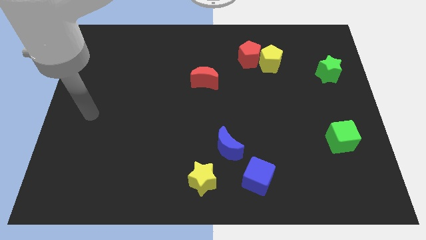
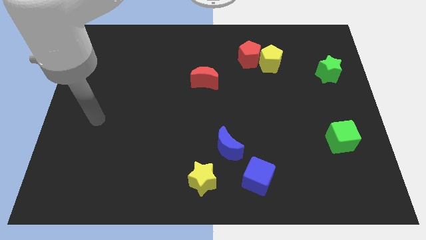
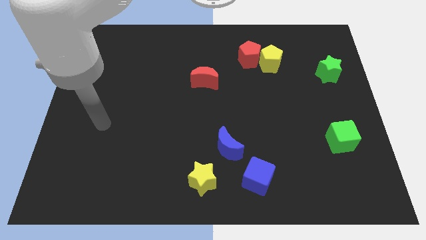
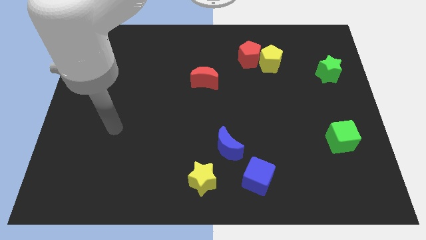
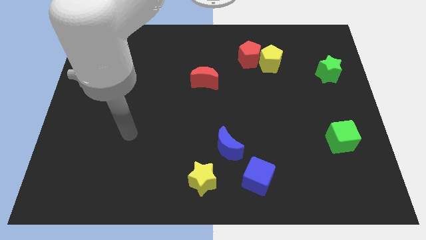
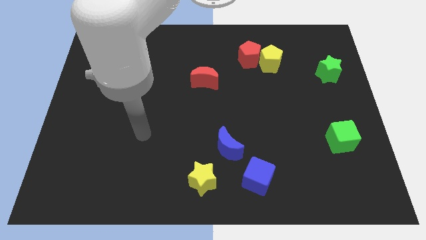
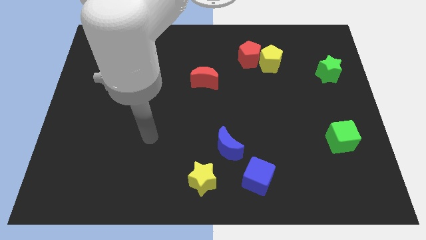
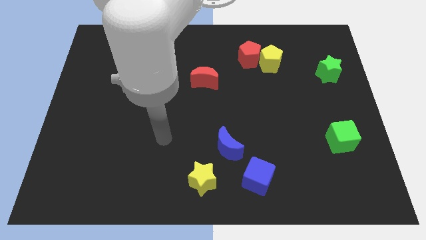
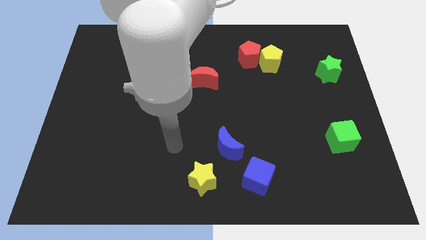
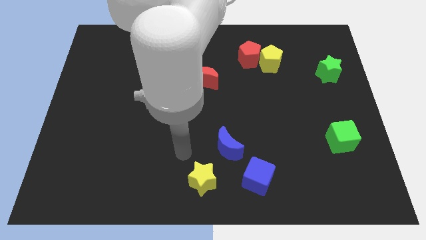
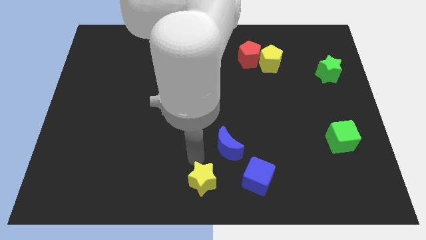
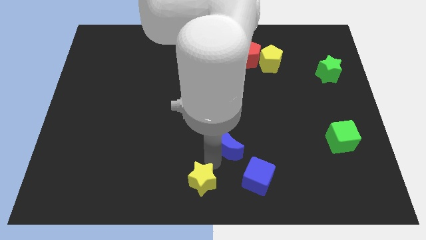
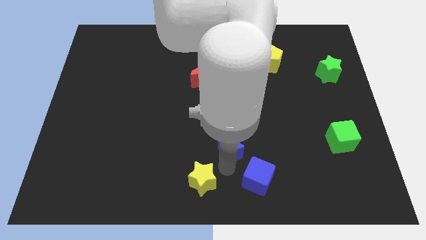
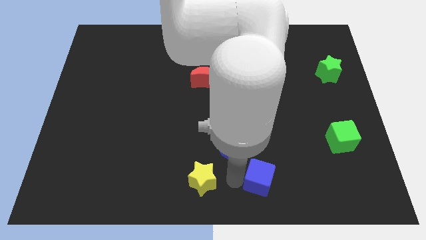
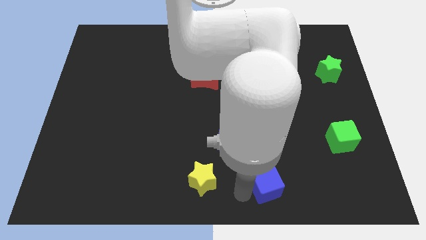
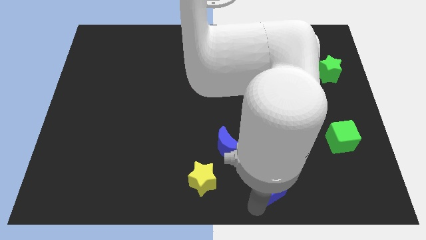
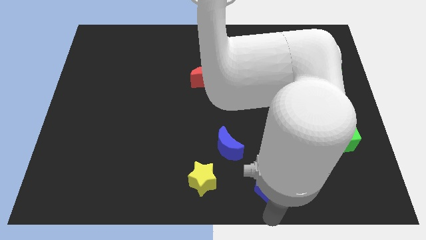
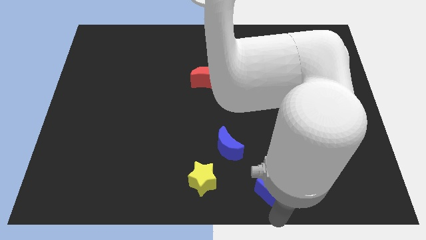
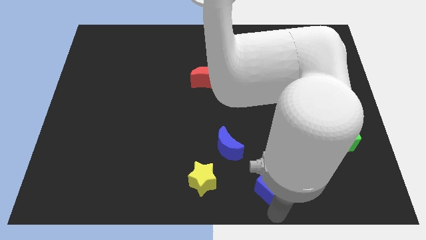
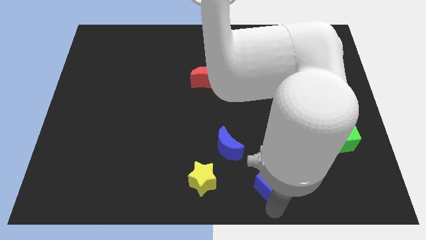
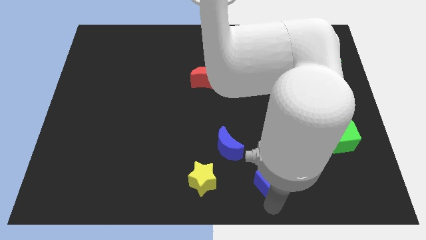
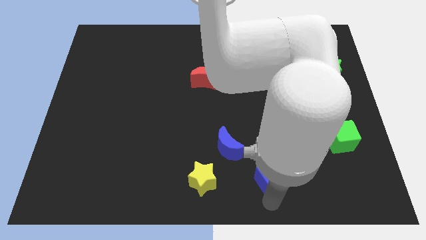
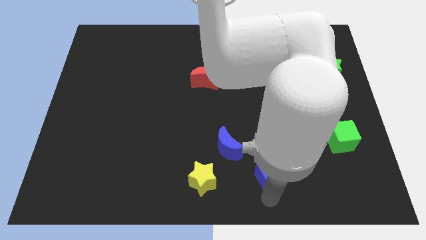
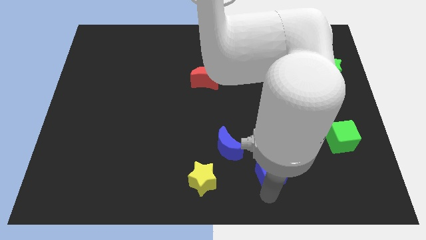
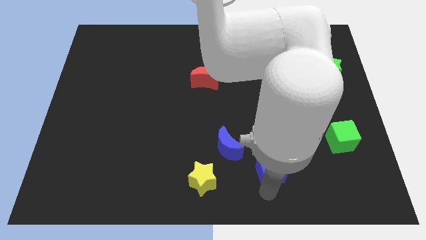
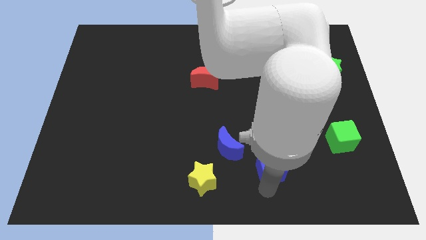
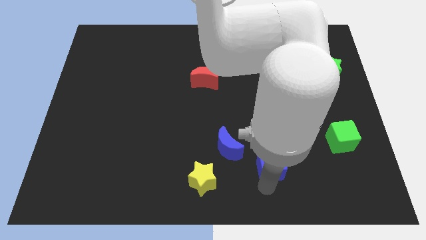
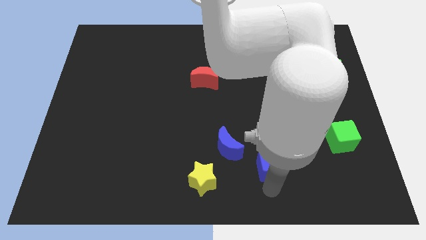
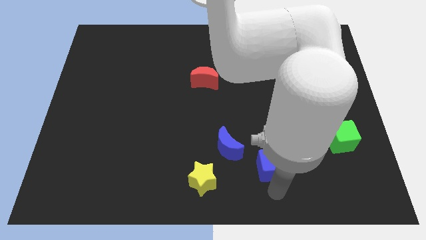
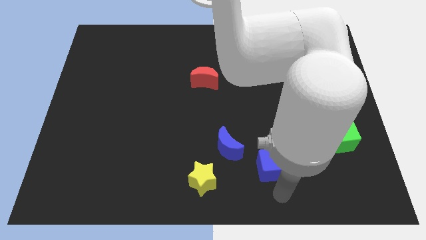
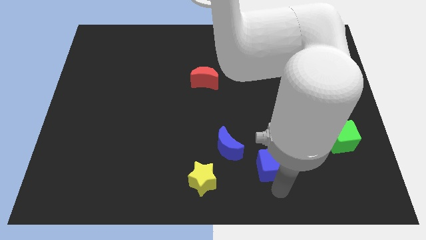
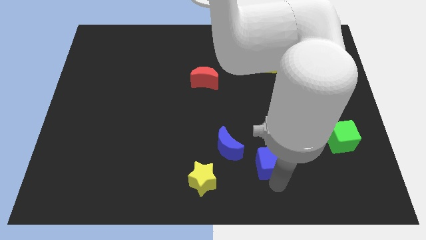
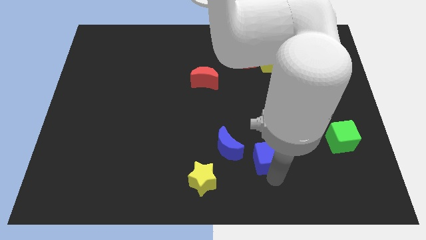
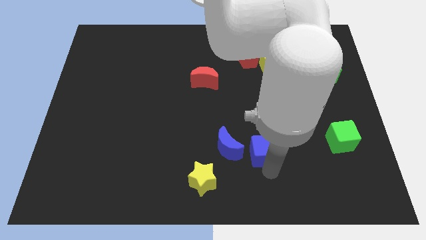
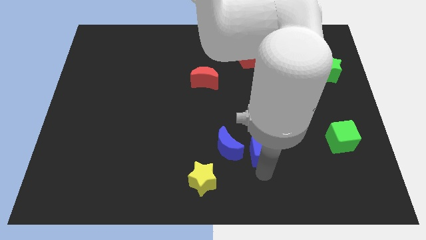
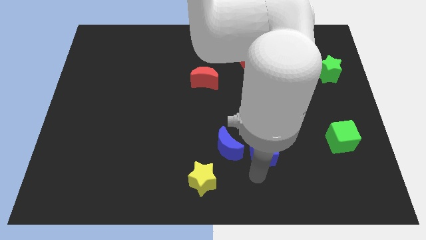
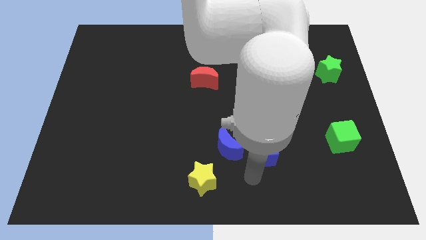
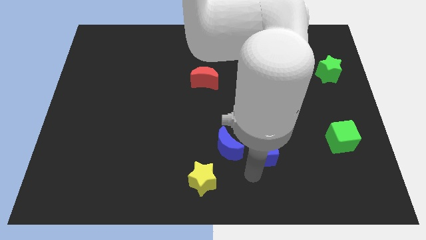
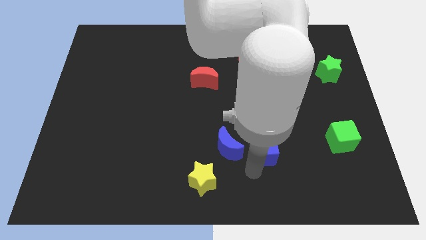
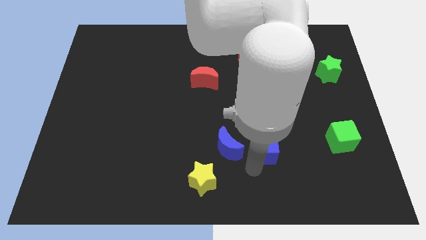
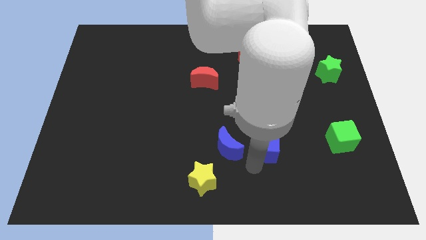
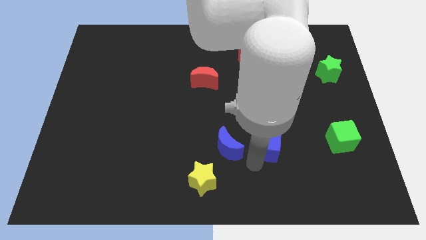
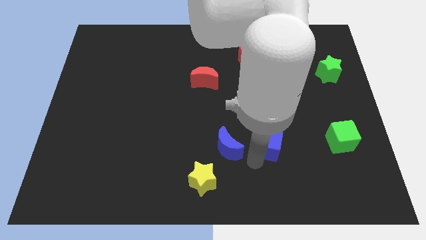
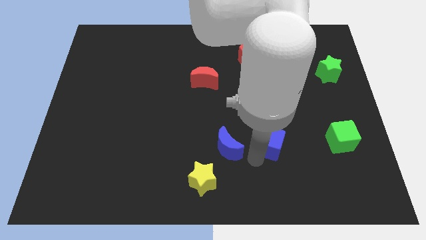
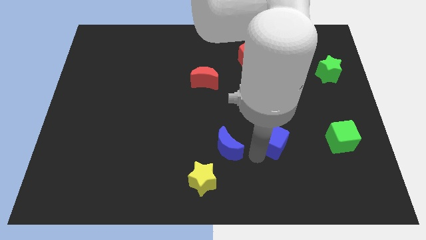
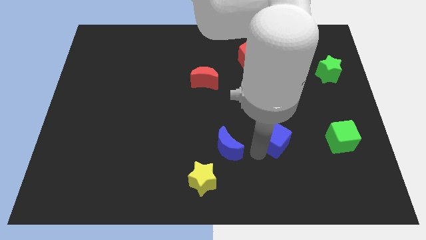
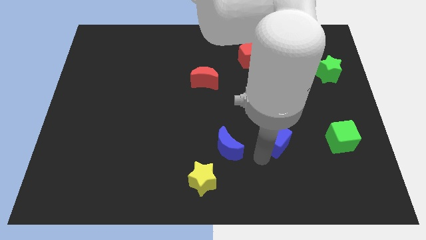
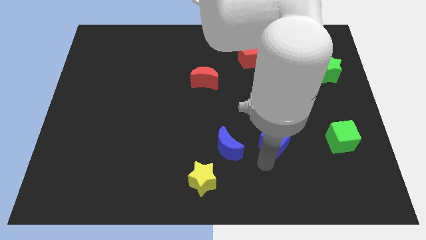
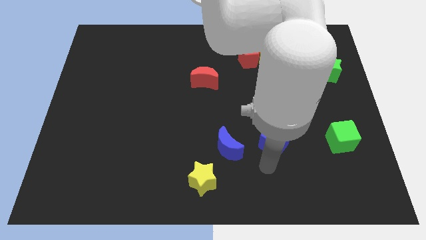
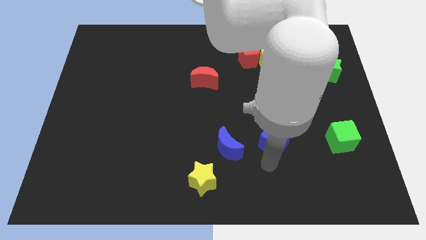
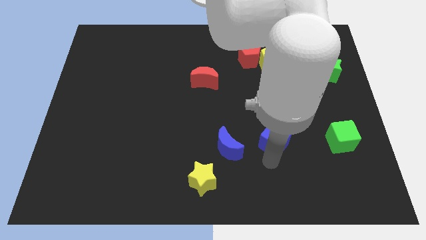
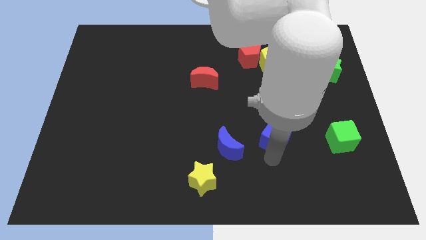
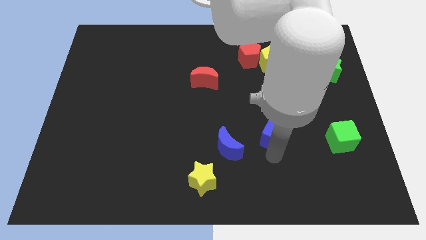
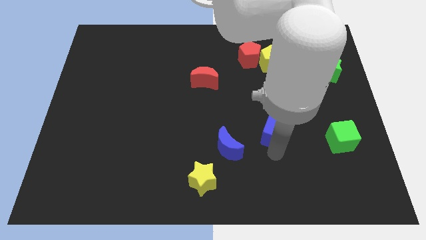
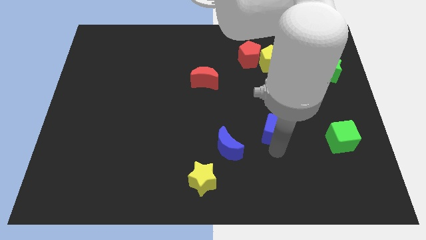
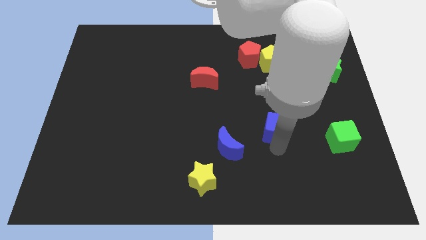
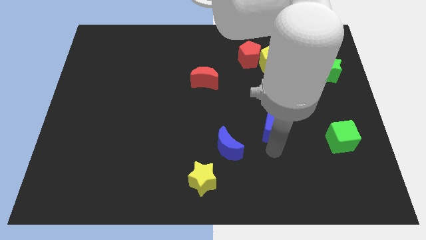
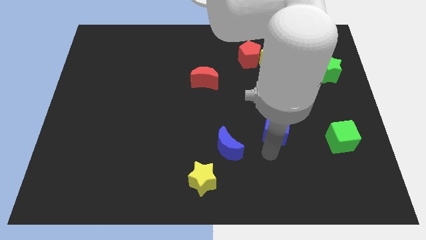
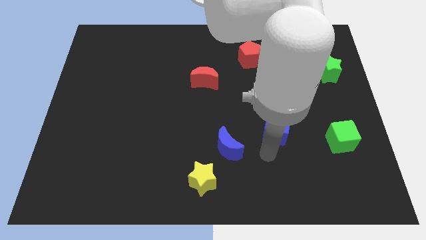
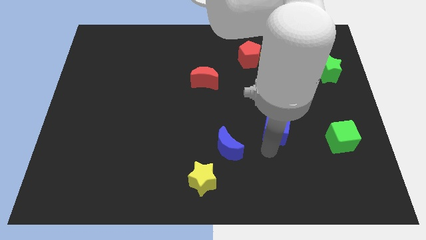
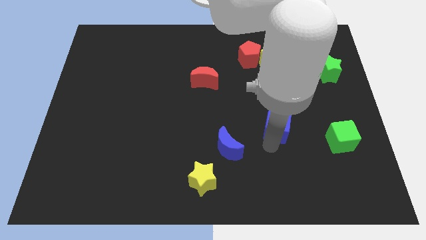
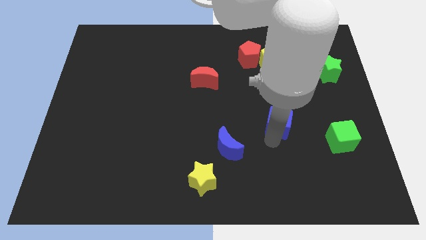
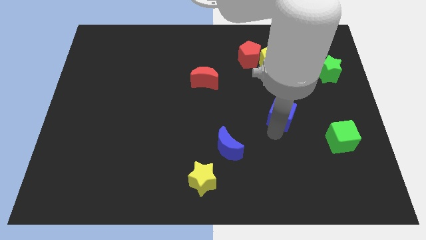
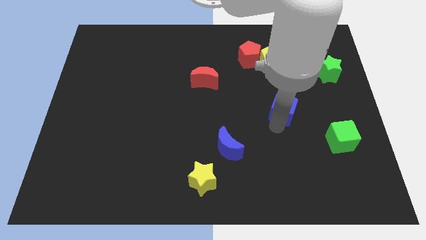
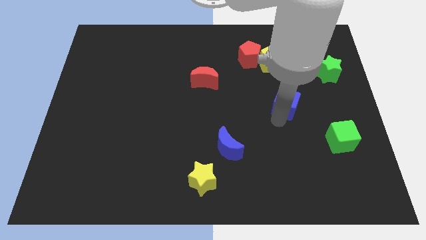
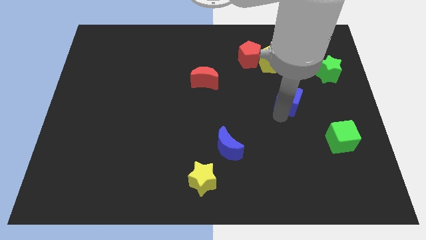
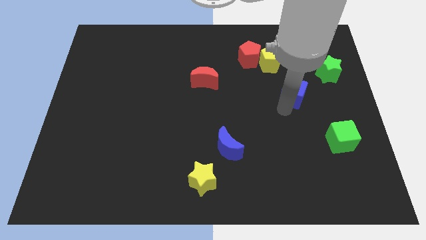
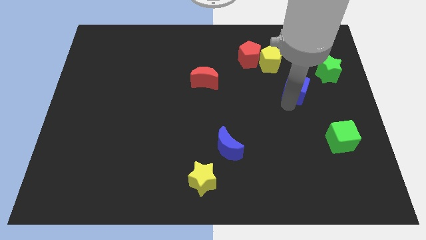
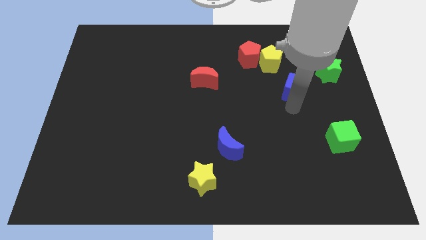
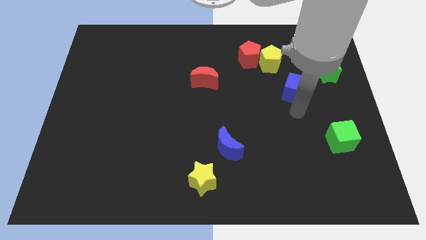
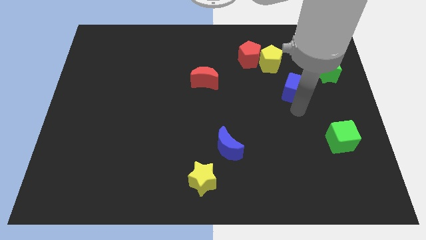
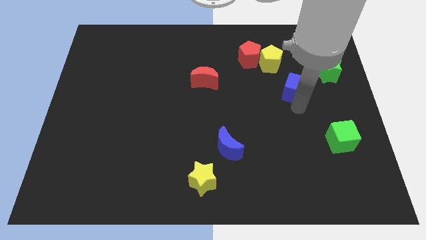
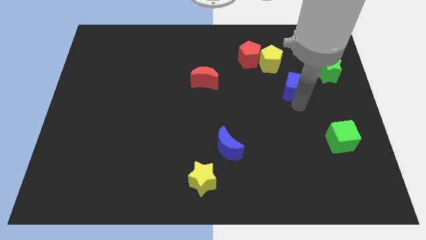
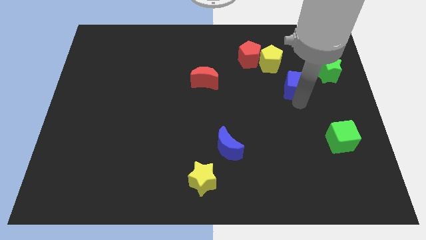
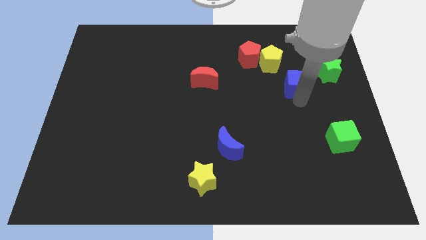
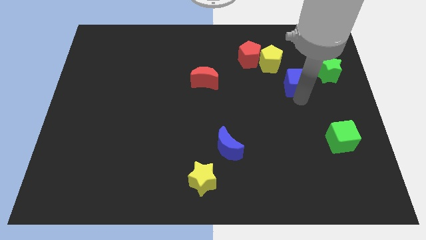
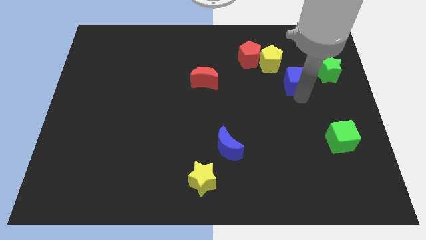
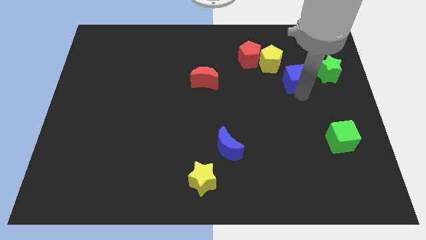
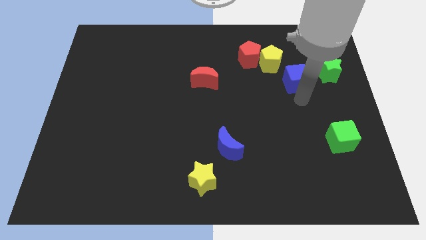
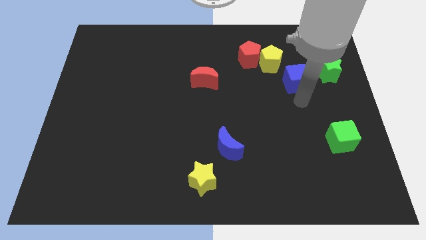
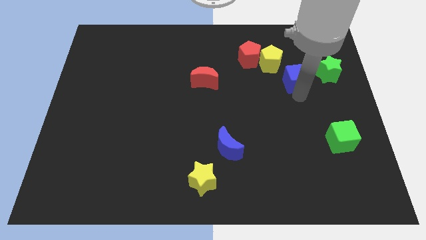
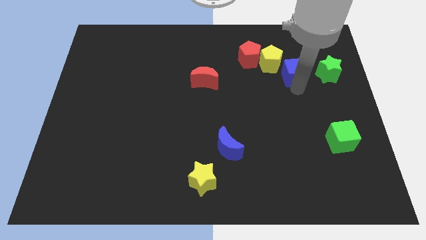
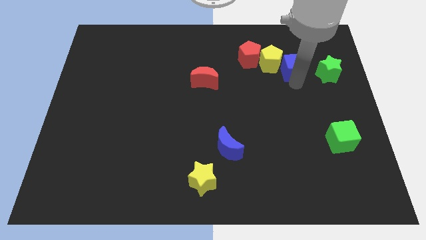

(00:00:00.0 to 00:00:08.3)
move the blue cube just right of the red pentagon
